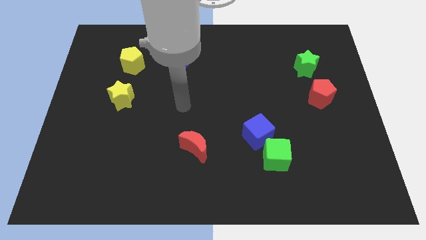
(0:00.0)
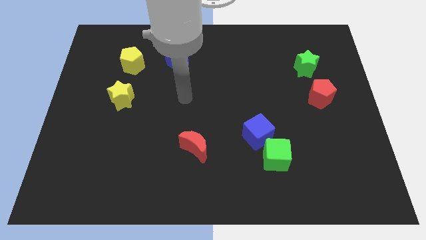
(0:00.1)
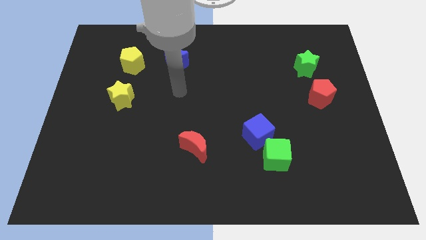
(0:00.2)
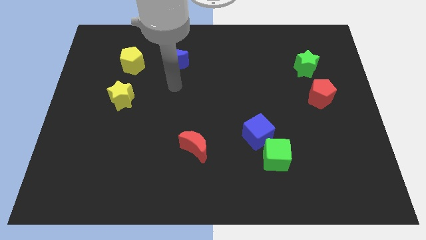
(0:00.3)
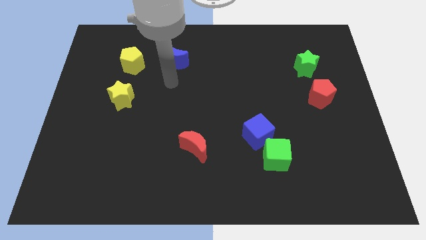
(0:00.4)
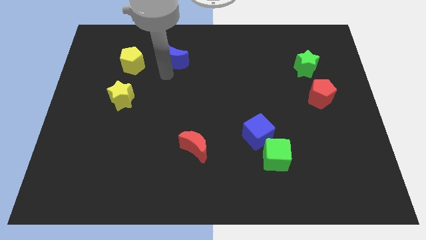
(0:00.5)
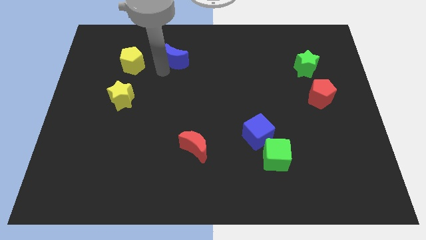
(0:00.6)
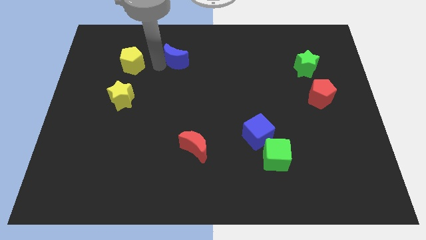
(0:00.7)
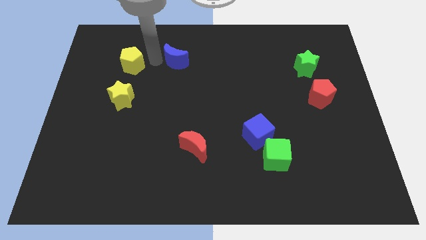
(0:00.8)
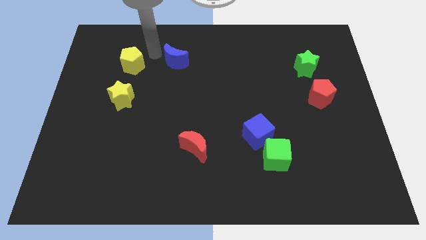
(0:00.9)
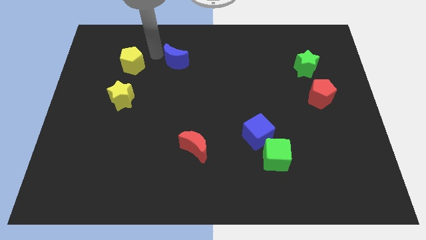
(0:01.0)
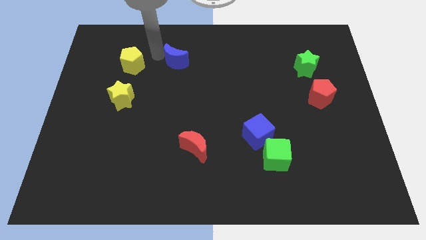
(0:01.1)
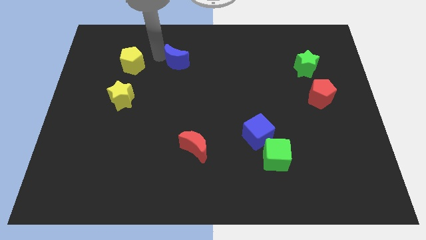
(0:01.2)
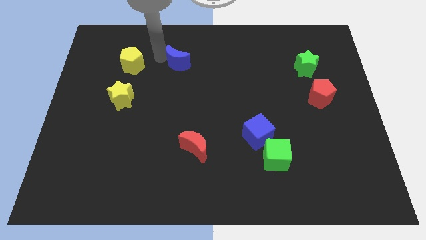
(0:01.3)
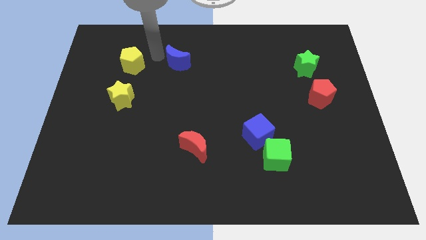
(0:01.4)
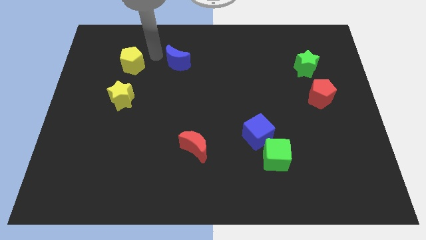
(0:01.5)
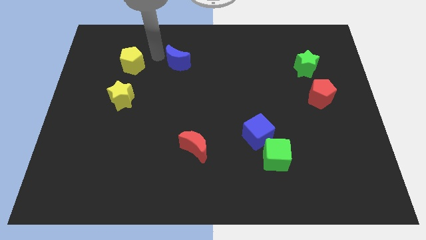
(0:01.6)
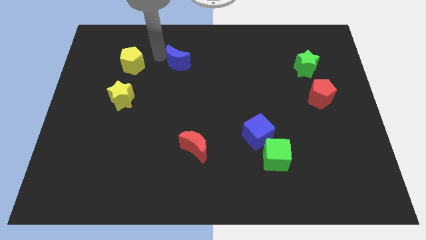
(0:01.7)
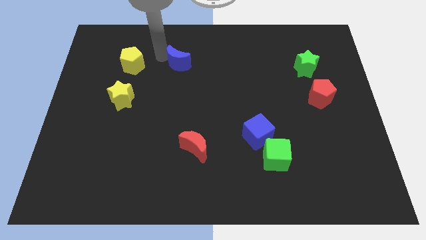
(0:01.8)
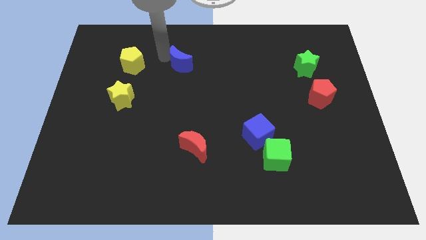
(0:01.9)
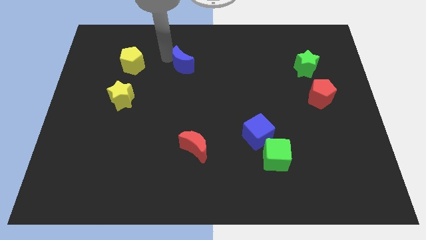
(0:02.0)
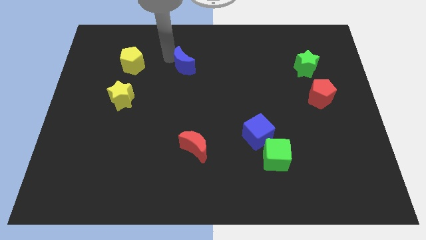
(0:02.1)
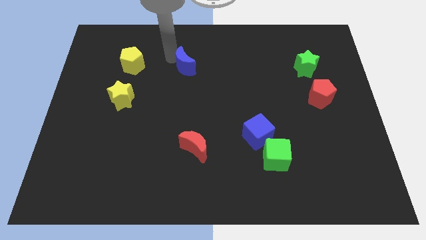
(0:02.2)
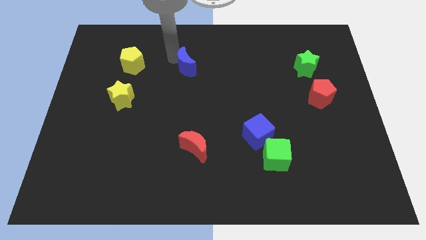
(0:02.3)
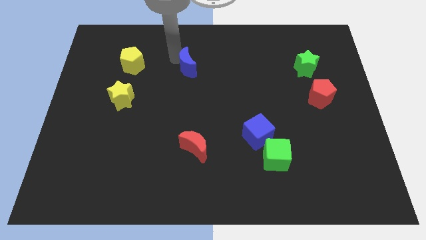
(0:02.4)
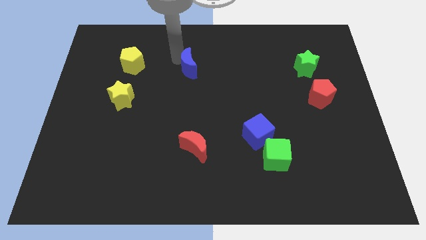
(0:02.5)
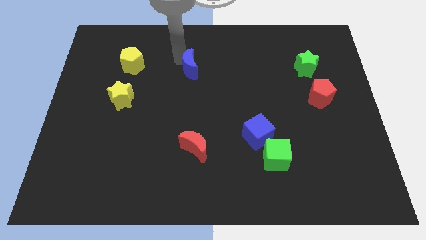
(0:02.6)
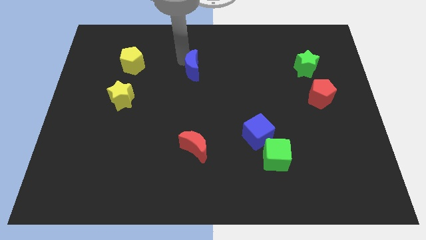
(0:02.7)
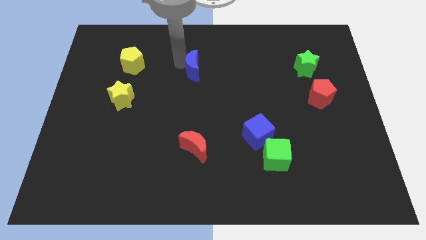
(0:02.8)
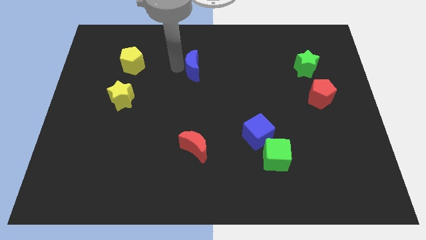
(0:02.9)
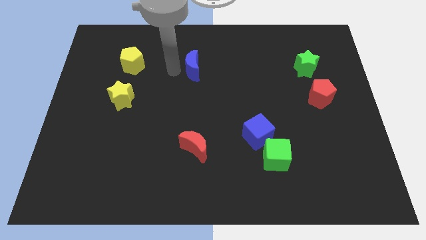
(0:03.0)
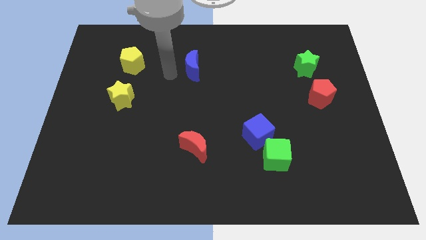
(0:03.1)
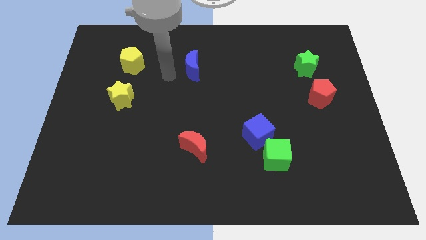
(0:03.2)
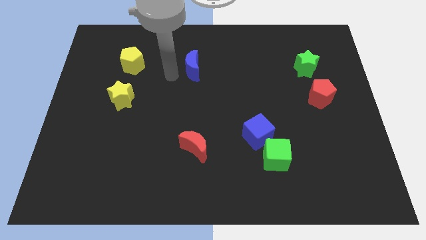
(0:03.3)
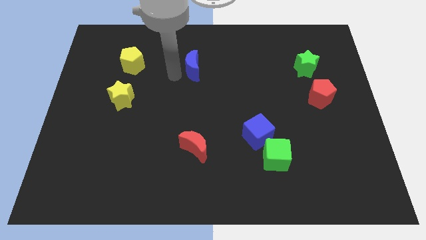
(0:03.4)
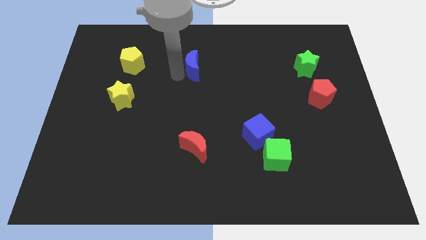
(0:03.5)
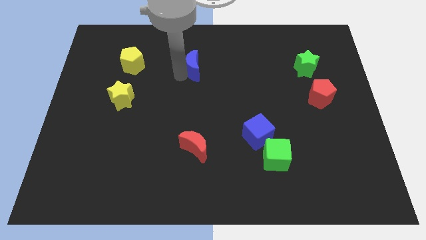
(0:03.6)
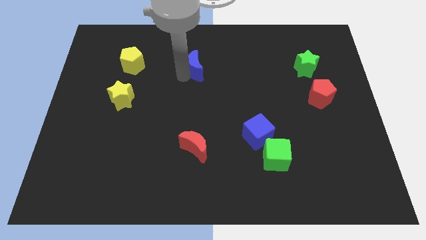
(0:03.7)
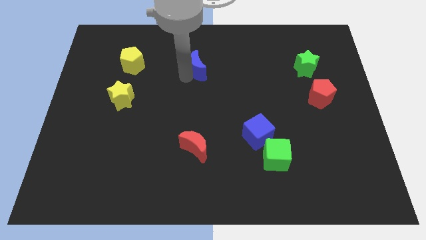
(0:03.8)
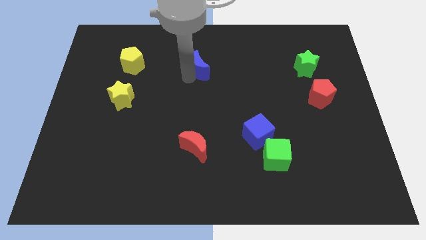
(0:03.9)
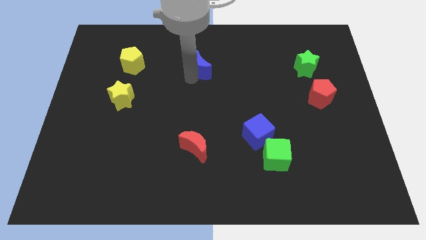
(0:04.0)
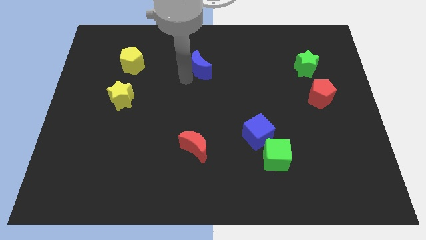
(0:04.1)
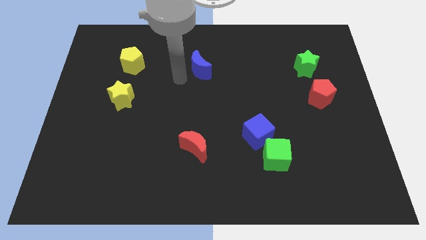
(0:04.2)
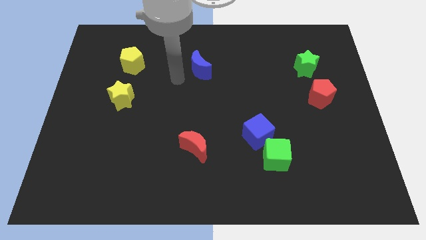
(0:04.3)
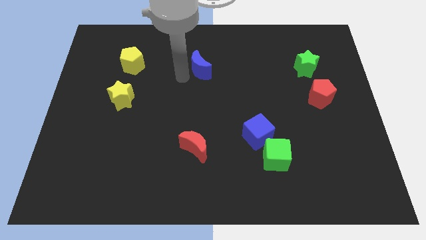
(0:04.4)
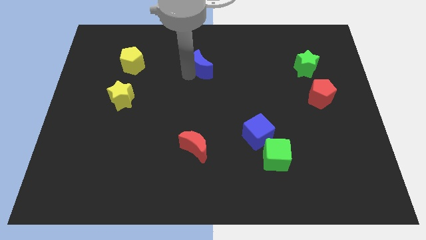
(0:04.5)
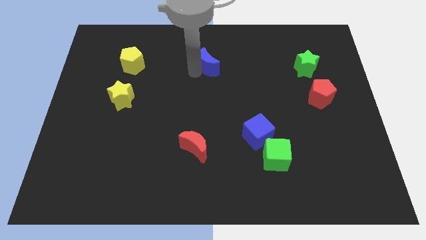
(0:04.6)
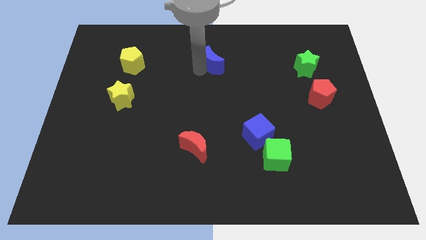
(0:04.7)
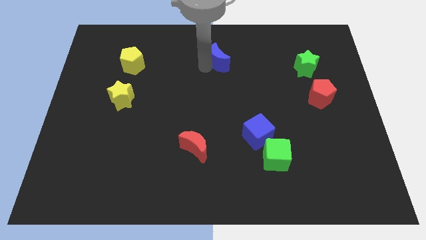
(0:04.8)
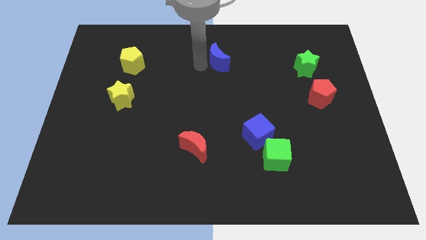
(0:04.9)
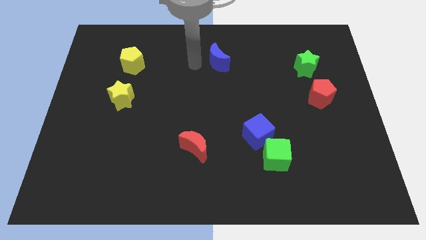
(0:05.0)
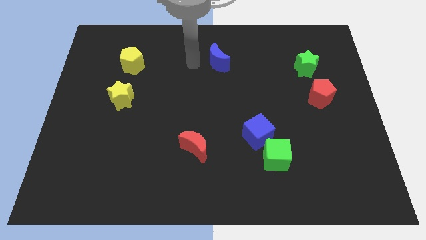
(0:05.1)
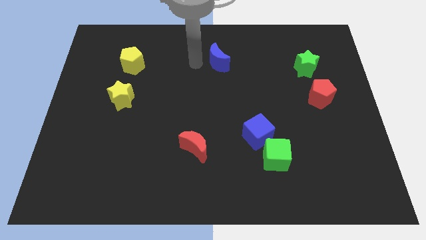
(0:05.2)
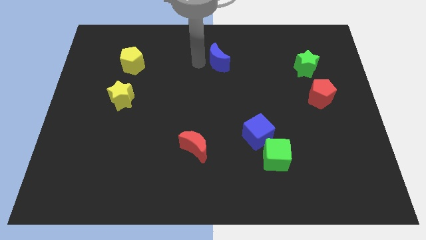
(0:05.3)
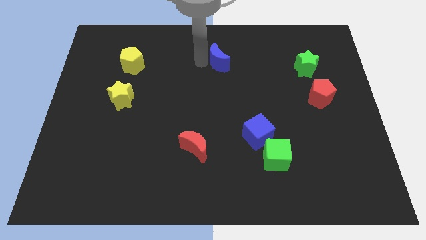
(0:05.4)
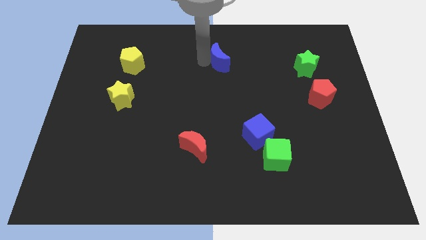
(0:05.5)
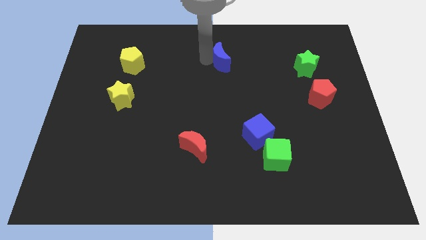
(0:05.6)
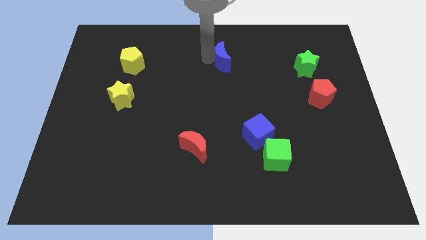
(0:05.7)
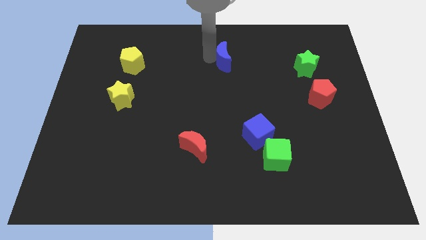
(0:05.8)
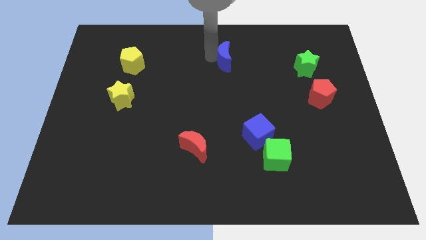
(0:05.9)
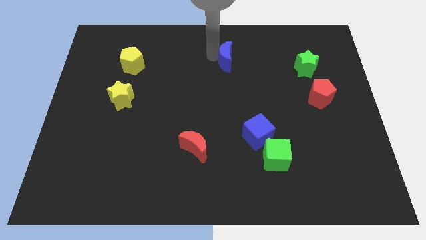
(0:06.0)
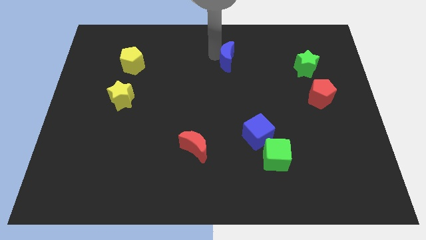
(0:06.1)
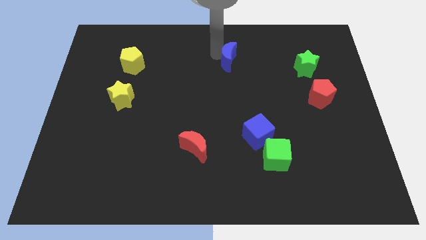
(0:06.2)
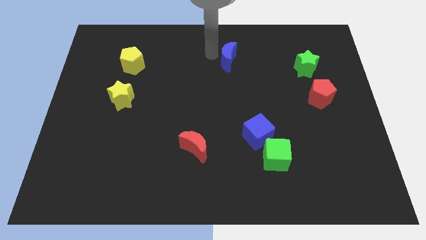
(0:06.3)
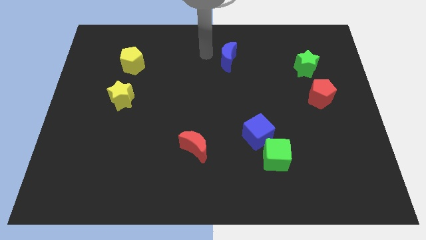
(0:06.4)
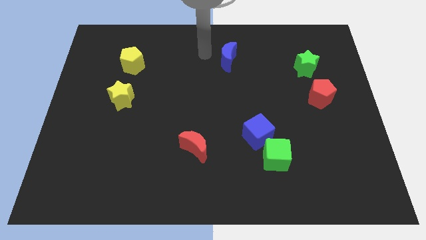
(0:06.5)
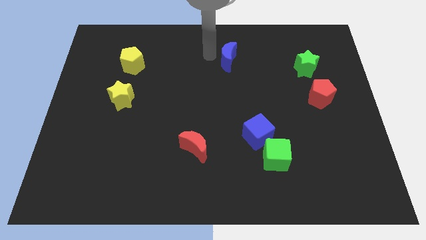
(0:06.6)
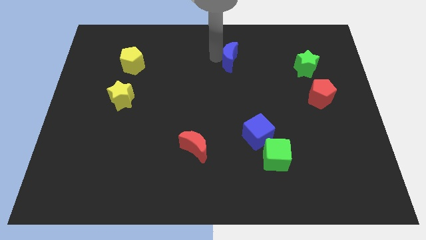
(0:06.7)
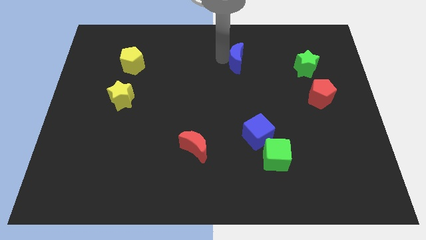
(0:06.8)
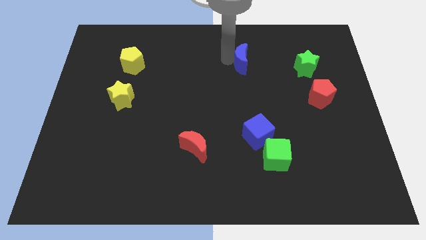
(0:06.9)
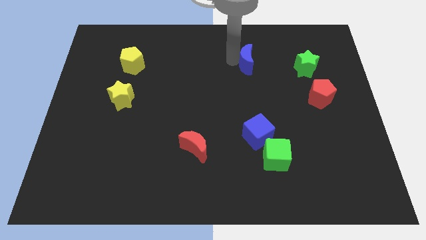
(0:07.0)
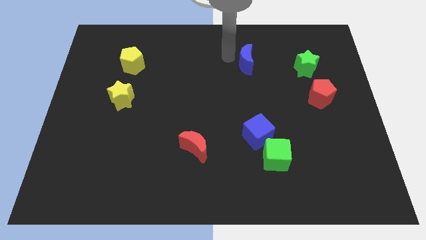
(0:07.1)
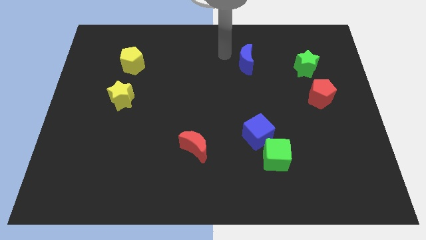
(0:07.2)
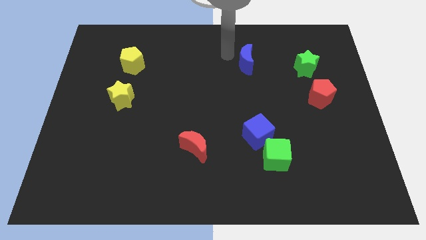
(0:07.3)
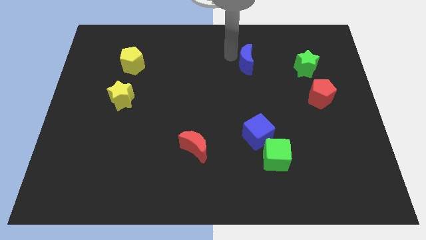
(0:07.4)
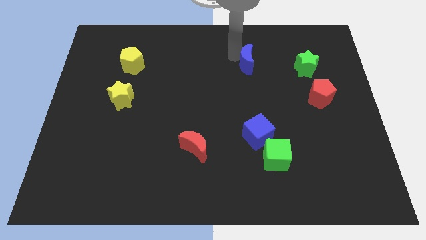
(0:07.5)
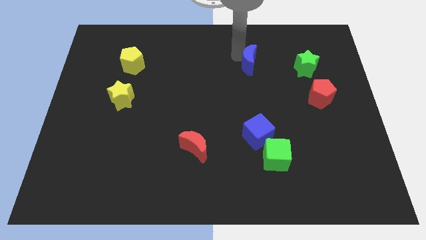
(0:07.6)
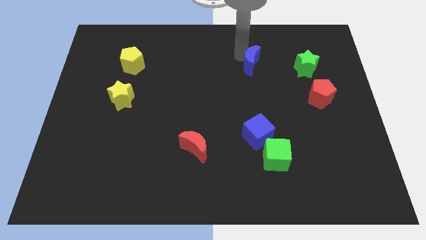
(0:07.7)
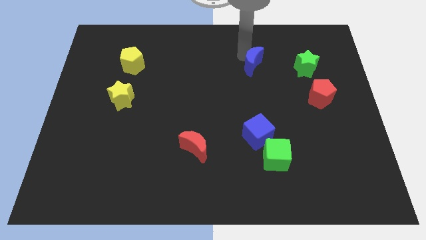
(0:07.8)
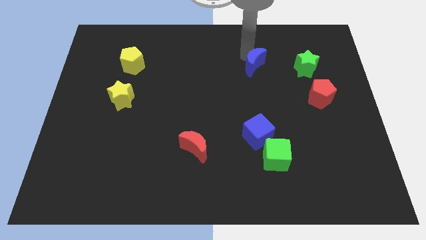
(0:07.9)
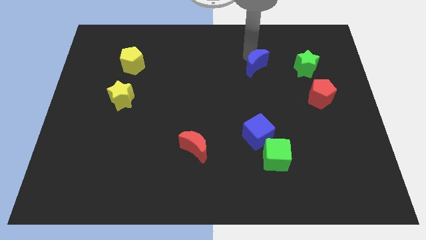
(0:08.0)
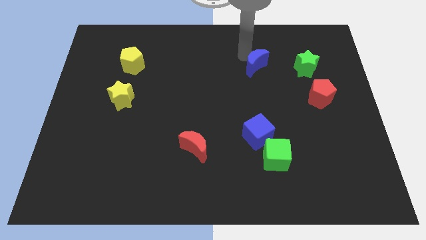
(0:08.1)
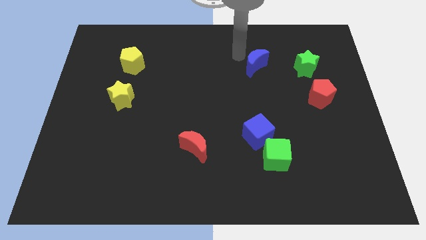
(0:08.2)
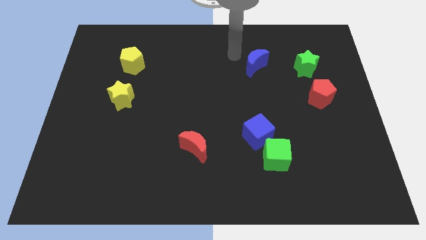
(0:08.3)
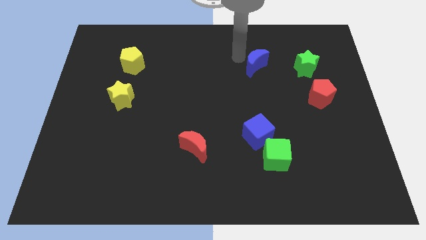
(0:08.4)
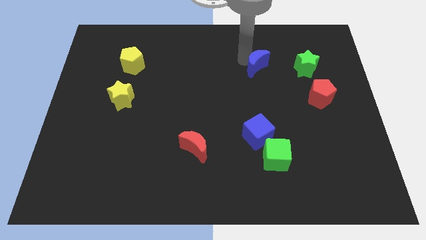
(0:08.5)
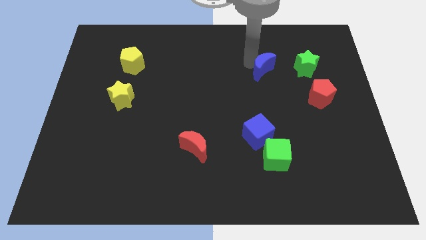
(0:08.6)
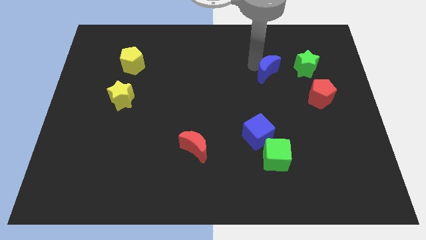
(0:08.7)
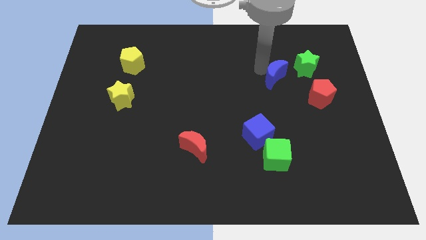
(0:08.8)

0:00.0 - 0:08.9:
put the blue moon to the top left of the red pentagon
